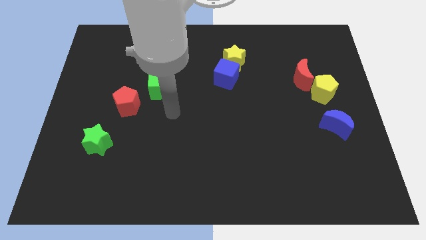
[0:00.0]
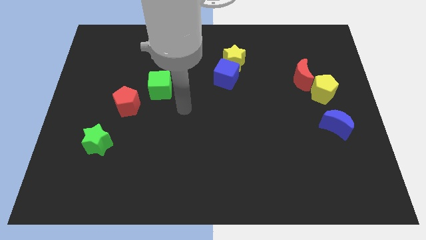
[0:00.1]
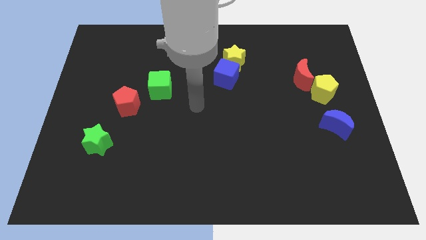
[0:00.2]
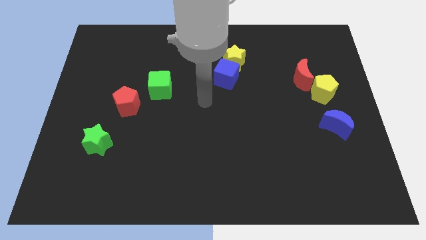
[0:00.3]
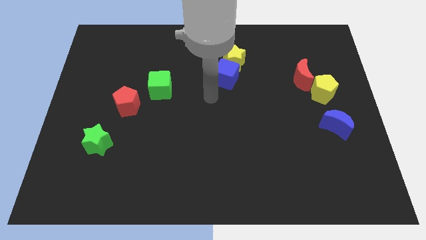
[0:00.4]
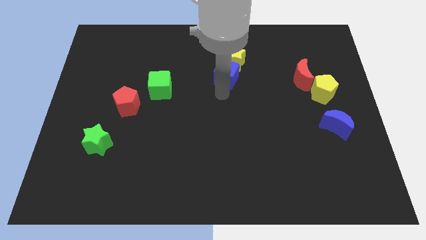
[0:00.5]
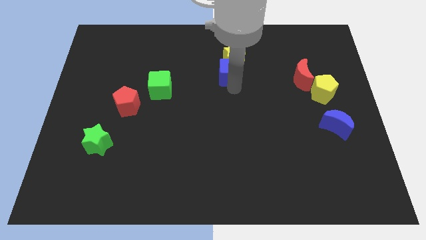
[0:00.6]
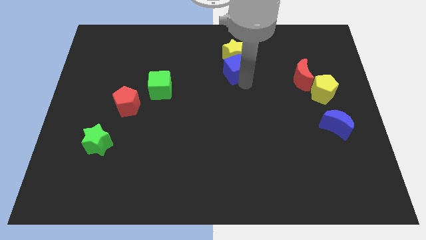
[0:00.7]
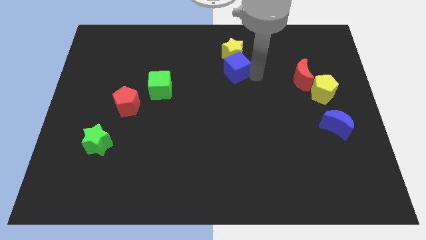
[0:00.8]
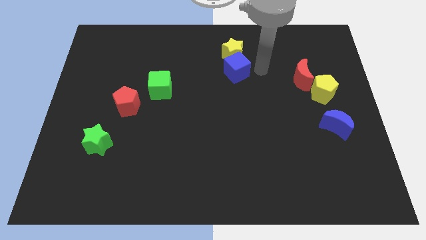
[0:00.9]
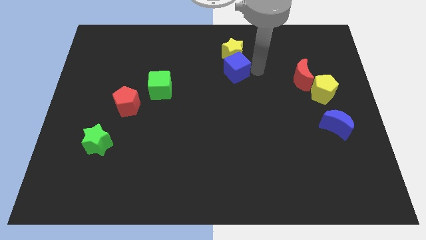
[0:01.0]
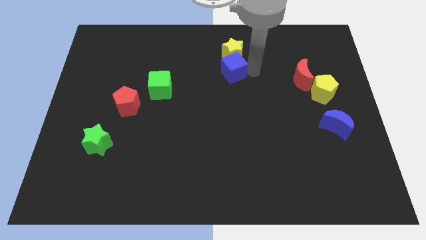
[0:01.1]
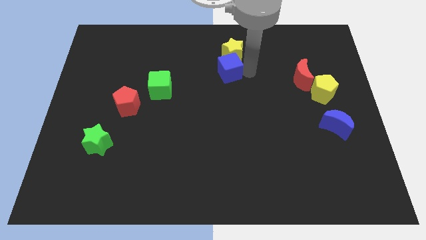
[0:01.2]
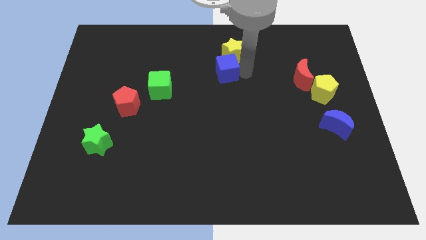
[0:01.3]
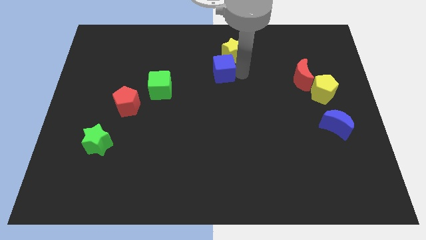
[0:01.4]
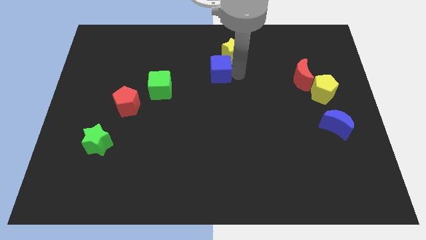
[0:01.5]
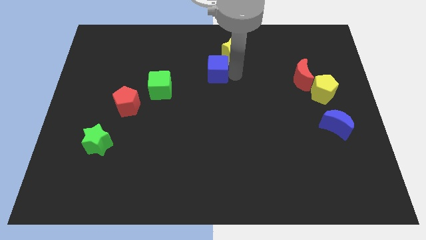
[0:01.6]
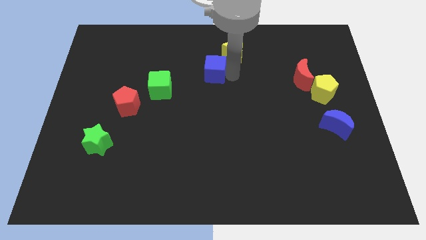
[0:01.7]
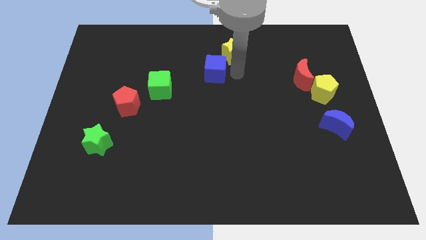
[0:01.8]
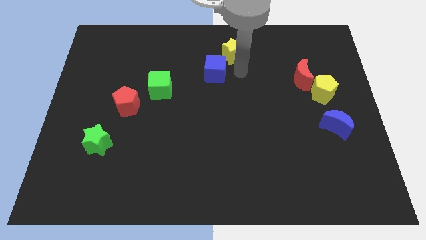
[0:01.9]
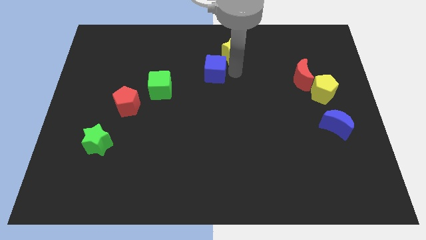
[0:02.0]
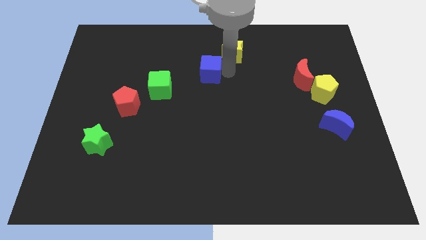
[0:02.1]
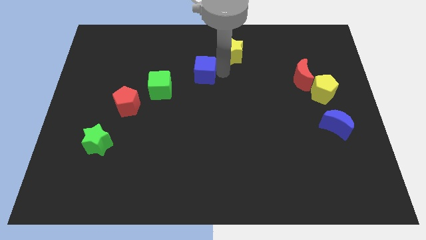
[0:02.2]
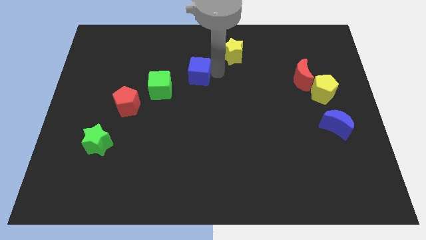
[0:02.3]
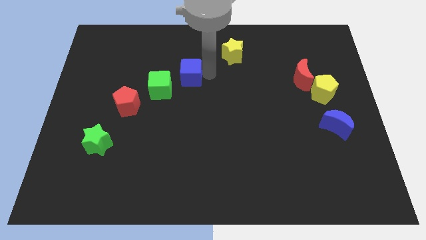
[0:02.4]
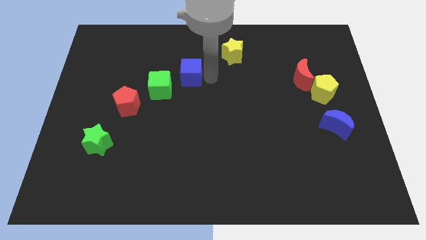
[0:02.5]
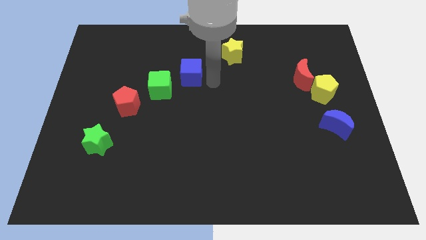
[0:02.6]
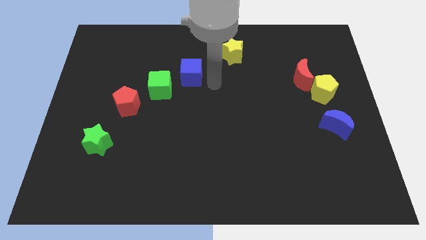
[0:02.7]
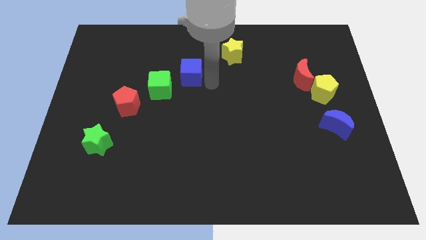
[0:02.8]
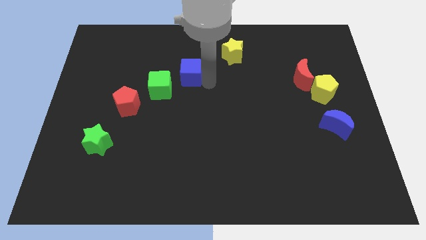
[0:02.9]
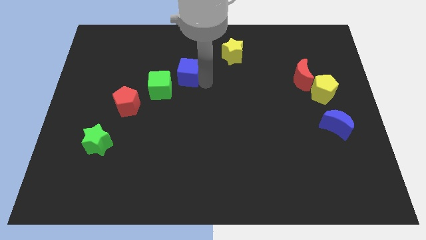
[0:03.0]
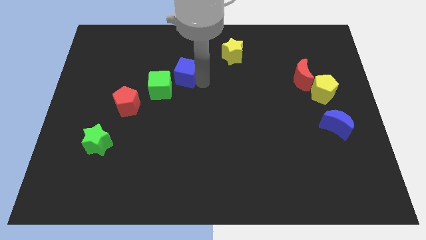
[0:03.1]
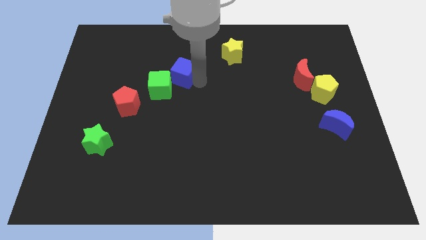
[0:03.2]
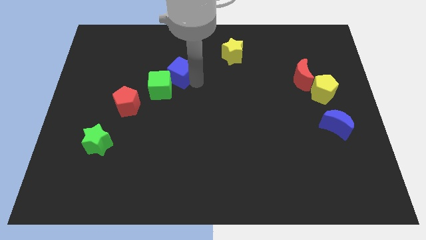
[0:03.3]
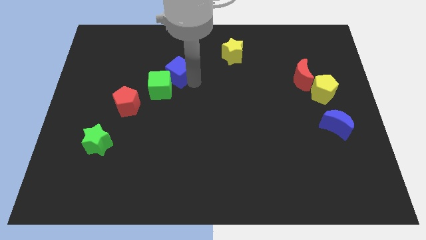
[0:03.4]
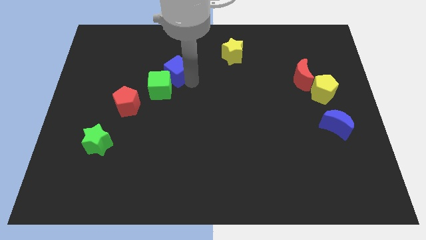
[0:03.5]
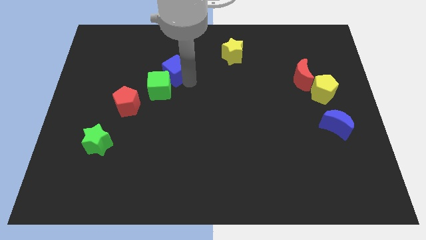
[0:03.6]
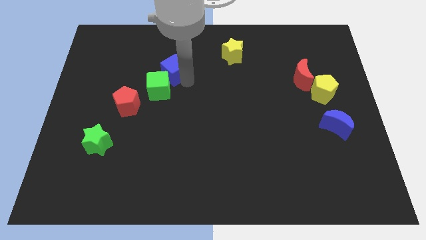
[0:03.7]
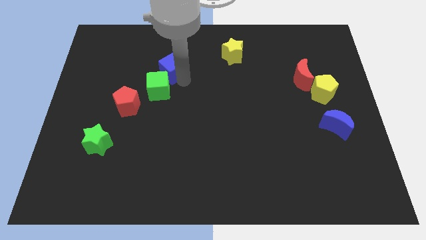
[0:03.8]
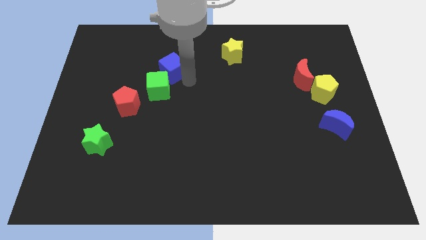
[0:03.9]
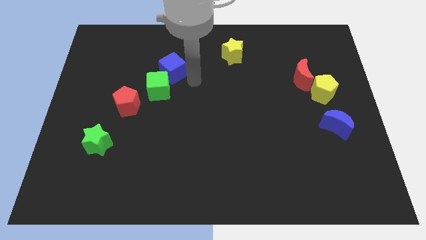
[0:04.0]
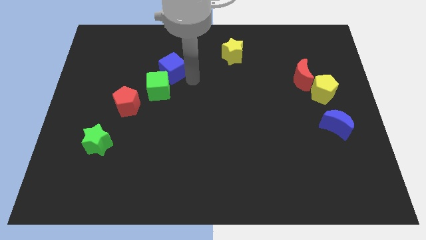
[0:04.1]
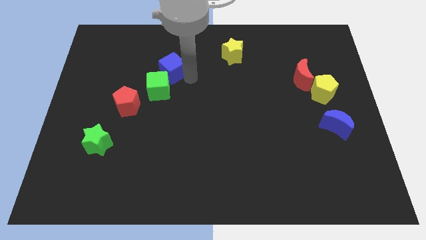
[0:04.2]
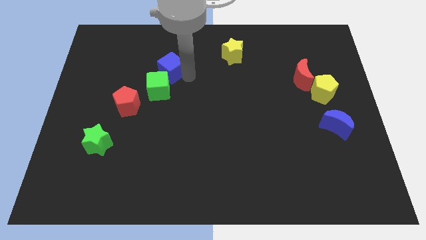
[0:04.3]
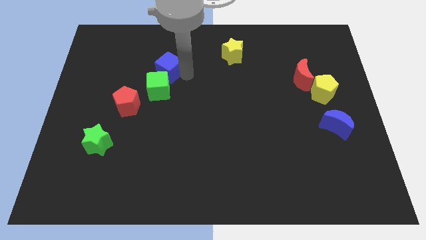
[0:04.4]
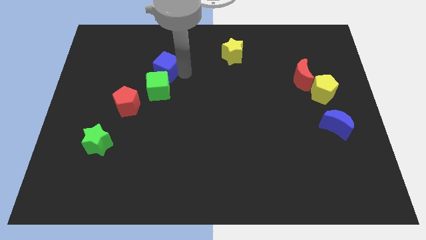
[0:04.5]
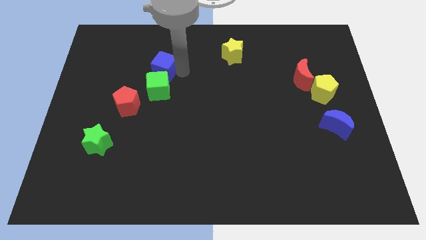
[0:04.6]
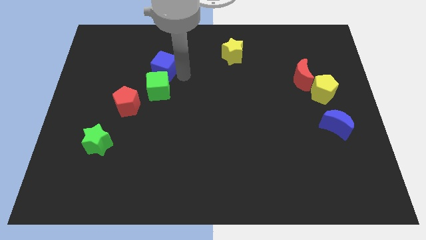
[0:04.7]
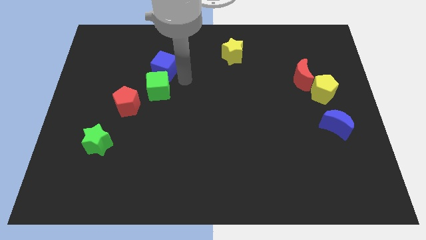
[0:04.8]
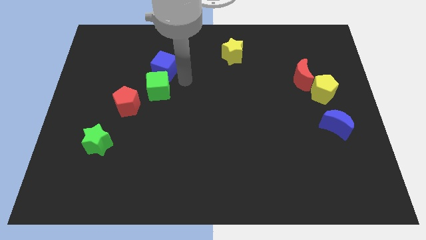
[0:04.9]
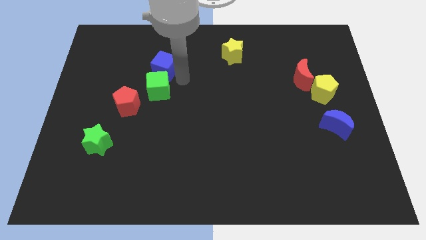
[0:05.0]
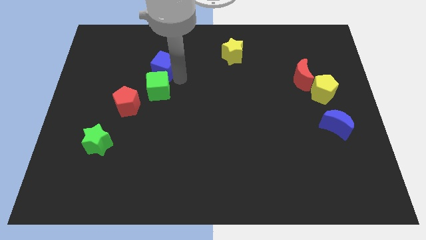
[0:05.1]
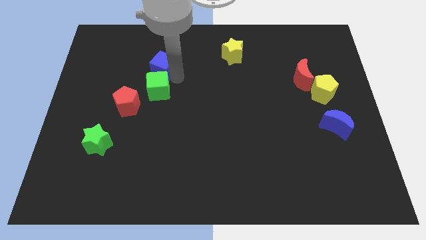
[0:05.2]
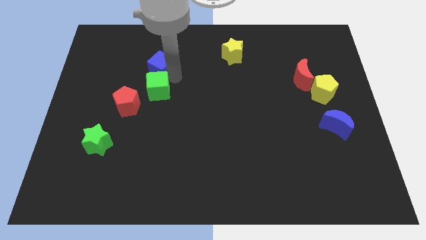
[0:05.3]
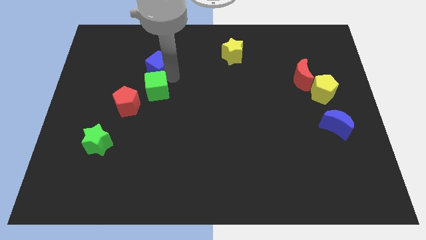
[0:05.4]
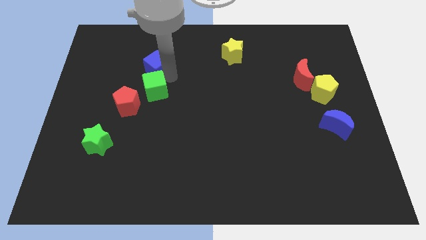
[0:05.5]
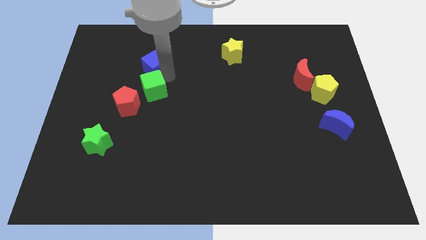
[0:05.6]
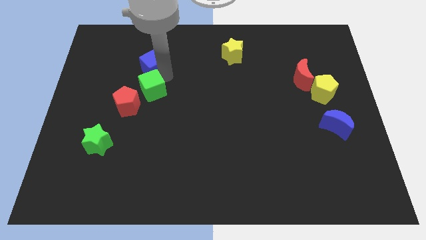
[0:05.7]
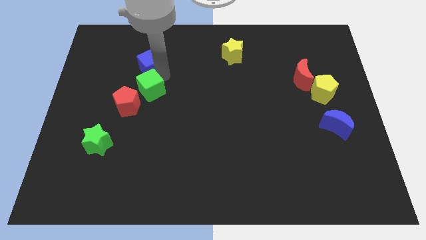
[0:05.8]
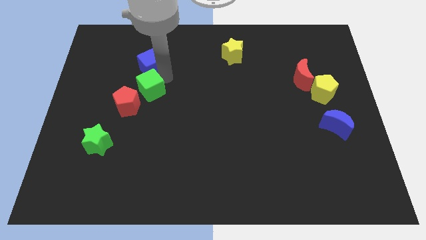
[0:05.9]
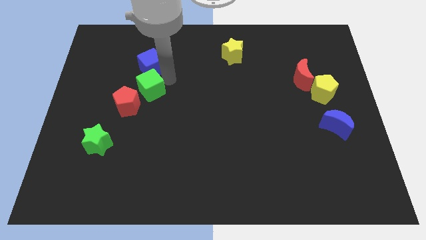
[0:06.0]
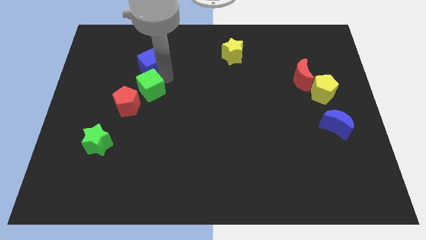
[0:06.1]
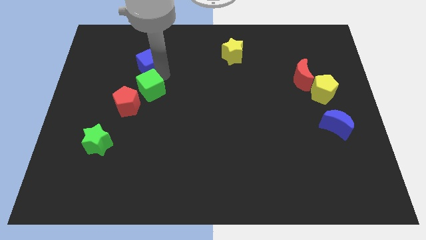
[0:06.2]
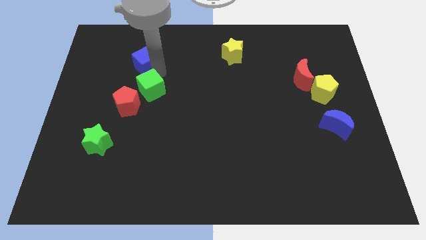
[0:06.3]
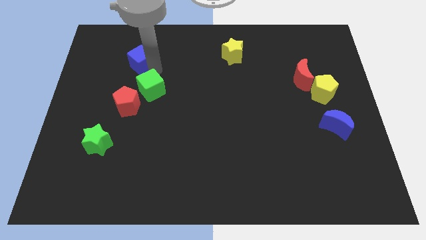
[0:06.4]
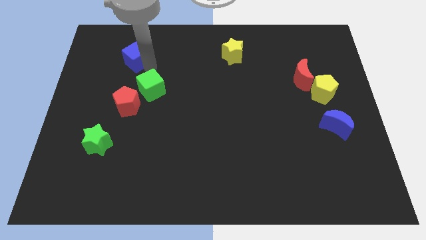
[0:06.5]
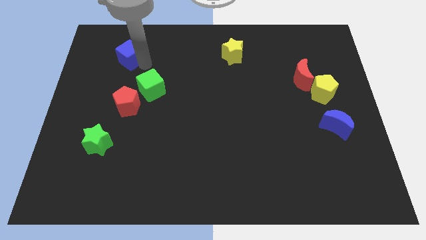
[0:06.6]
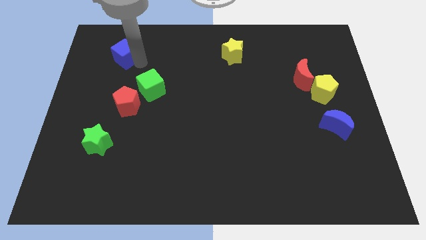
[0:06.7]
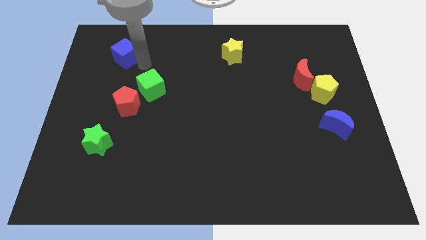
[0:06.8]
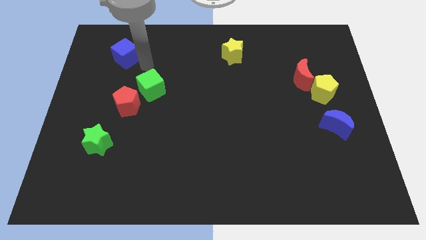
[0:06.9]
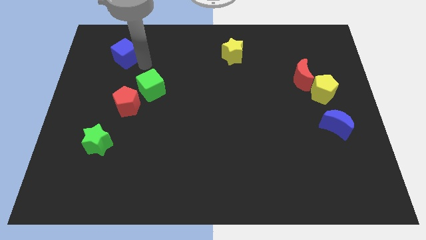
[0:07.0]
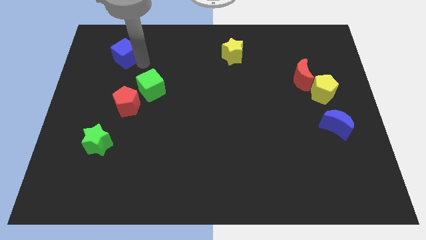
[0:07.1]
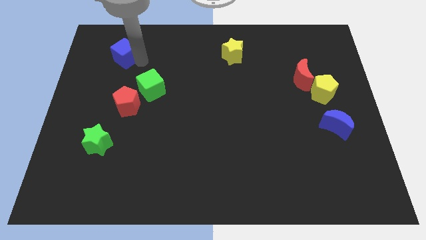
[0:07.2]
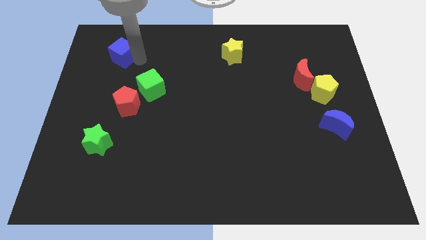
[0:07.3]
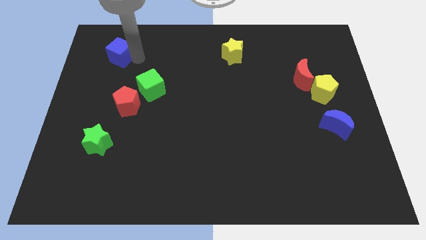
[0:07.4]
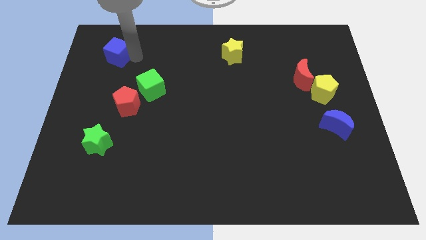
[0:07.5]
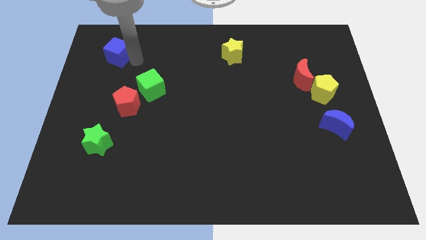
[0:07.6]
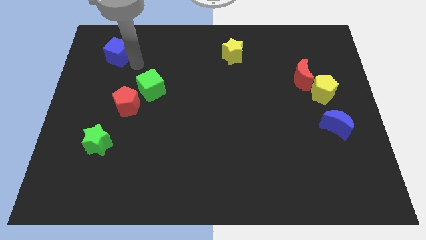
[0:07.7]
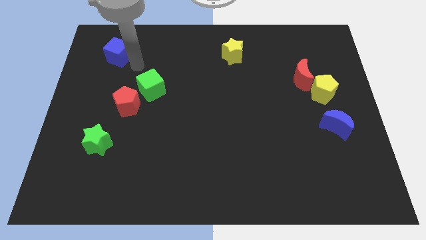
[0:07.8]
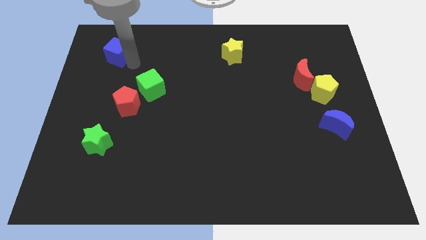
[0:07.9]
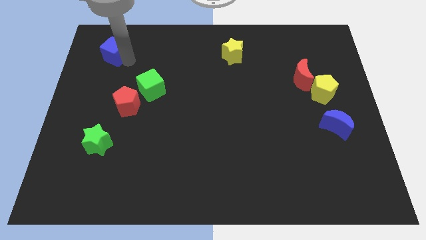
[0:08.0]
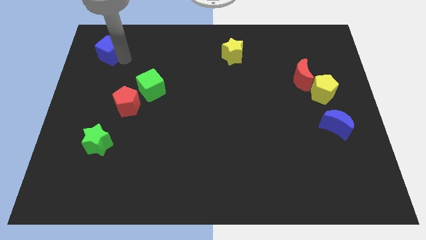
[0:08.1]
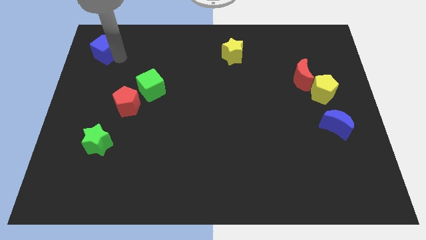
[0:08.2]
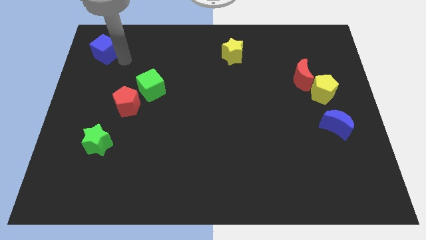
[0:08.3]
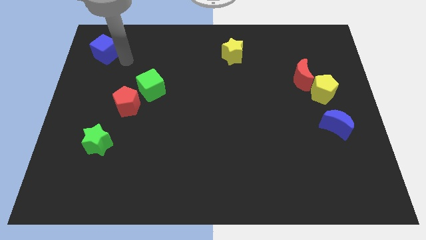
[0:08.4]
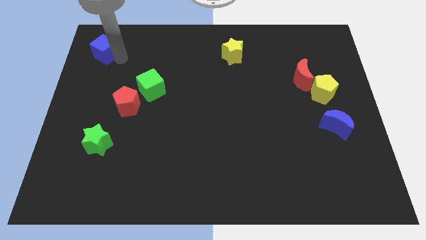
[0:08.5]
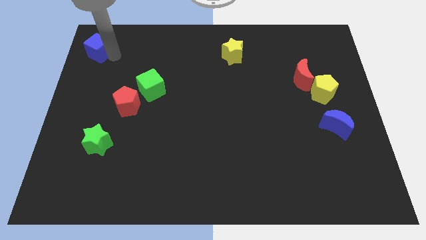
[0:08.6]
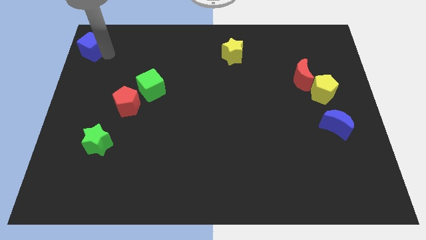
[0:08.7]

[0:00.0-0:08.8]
move the blue cube to the top left corner
